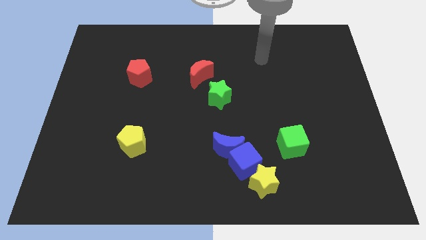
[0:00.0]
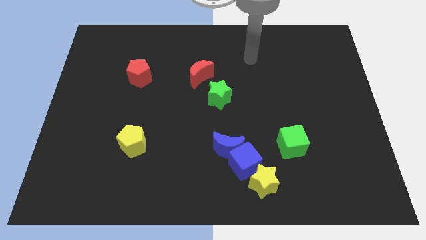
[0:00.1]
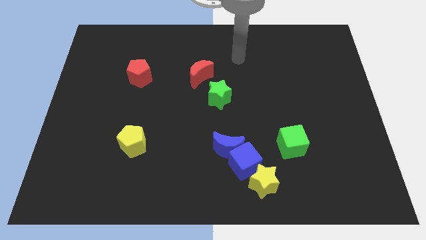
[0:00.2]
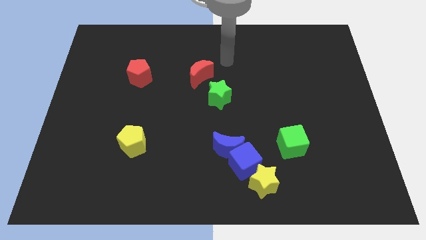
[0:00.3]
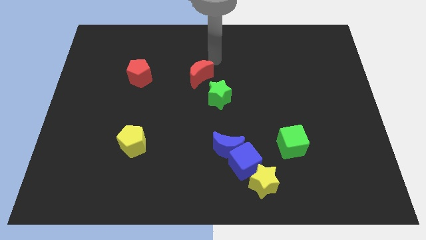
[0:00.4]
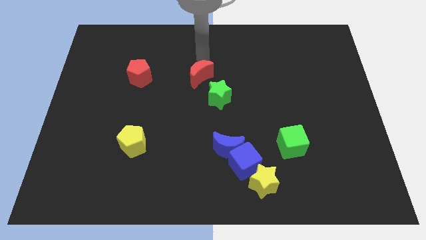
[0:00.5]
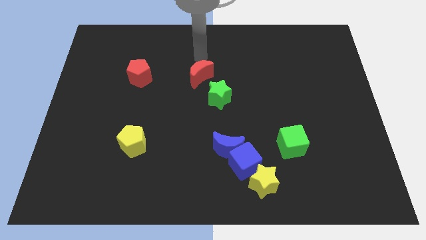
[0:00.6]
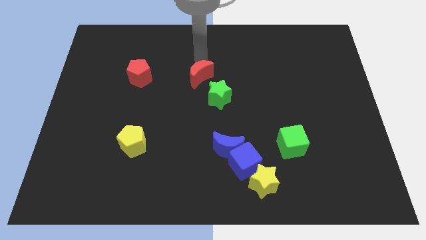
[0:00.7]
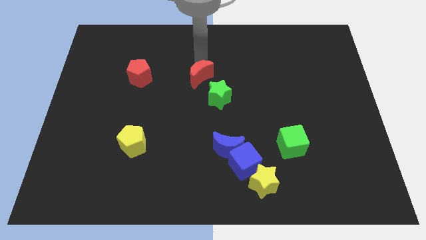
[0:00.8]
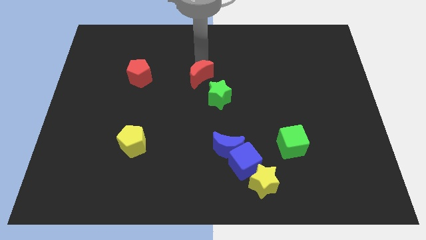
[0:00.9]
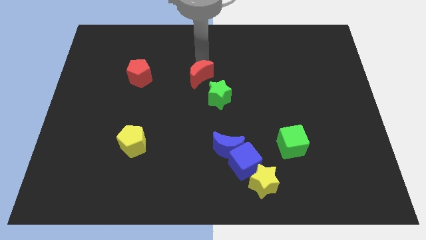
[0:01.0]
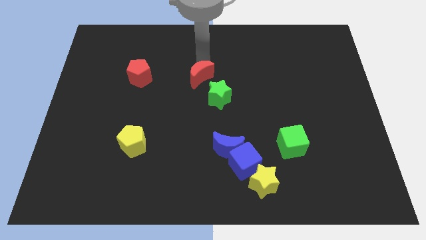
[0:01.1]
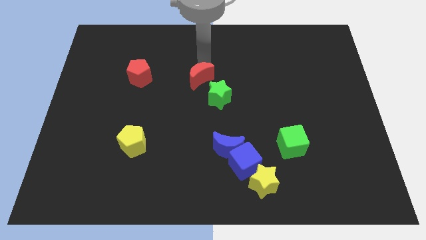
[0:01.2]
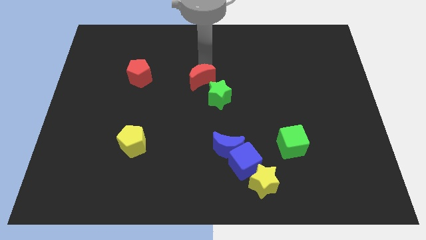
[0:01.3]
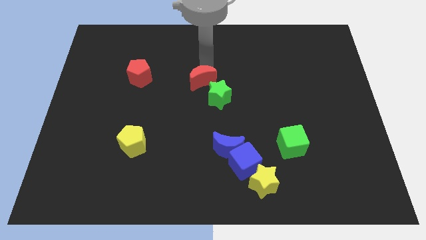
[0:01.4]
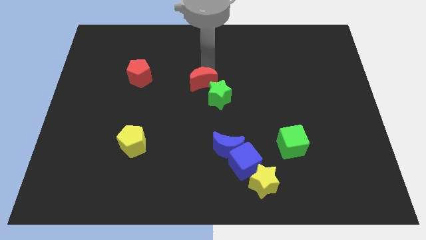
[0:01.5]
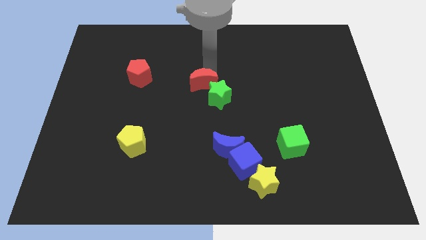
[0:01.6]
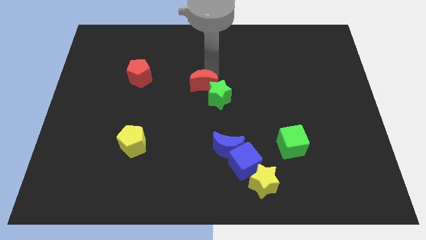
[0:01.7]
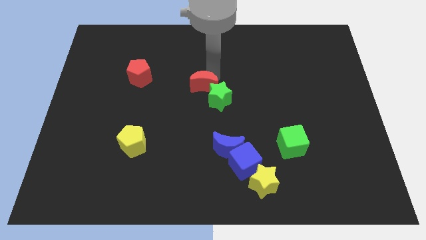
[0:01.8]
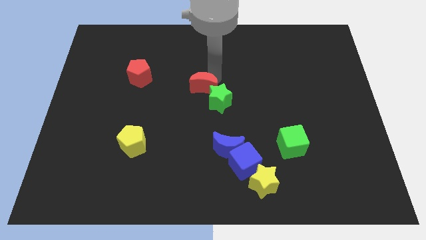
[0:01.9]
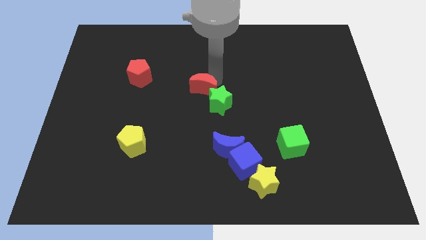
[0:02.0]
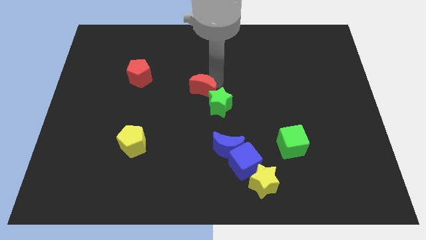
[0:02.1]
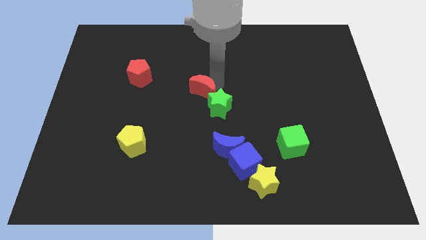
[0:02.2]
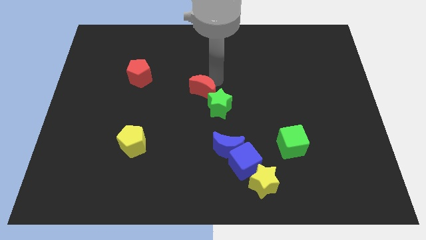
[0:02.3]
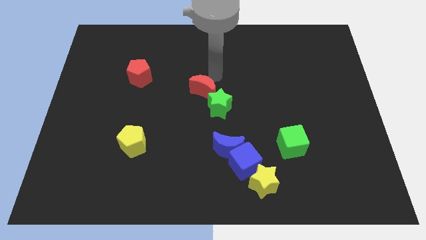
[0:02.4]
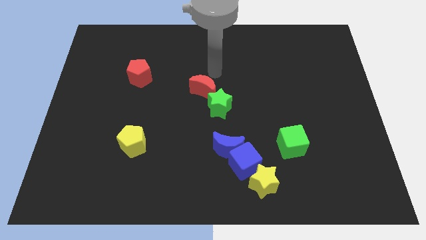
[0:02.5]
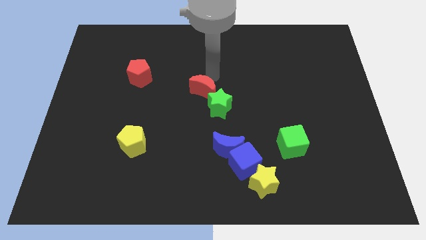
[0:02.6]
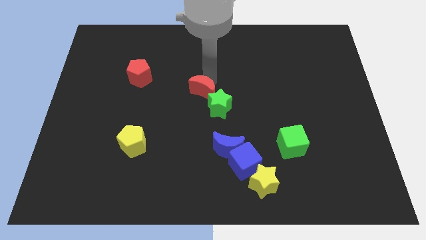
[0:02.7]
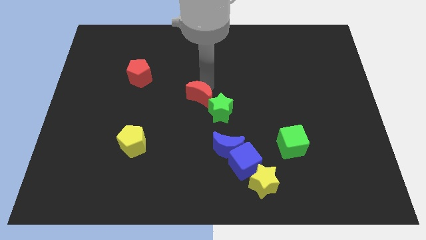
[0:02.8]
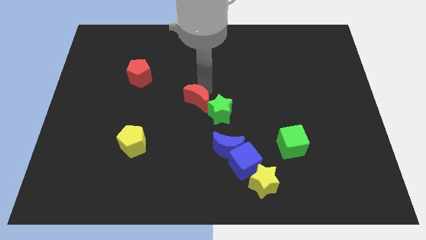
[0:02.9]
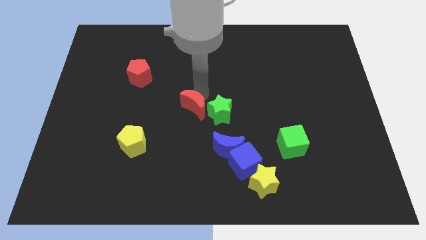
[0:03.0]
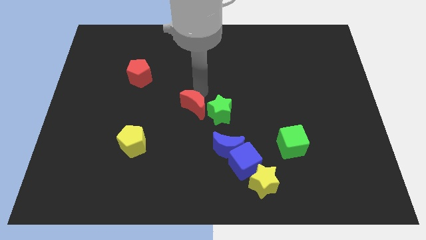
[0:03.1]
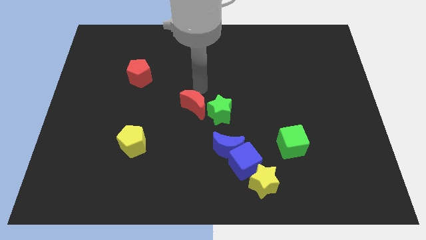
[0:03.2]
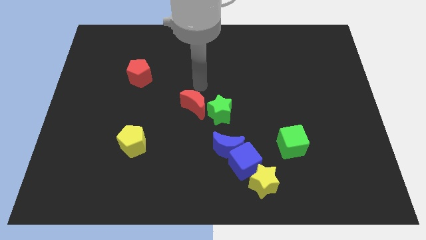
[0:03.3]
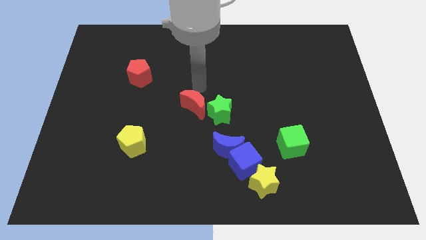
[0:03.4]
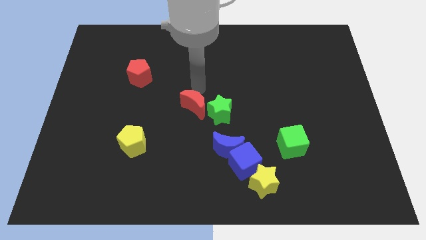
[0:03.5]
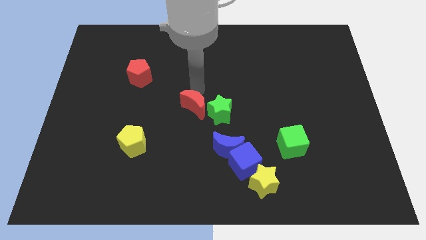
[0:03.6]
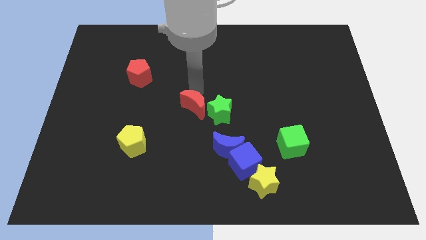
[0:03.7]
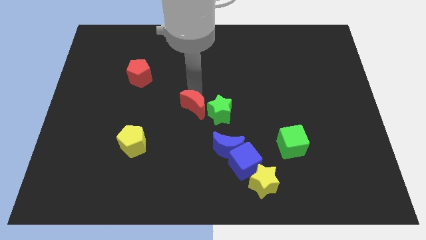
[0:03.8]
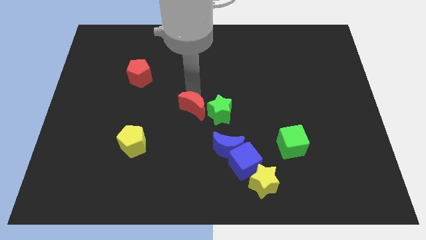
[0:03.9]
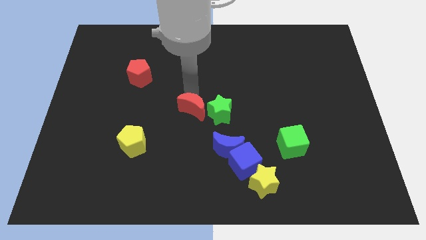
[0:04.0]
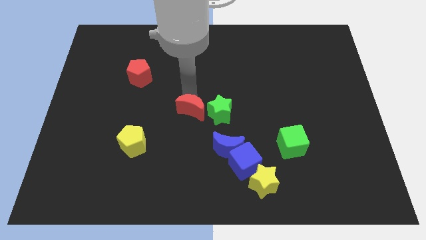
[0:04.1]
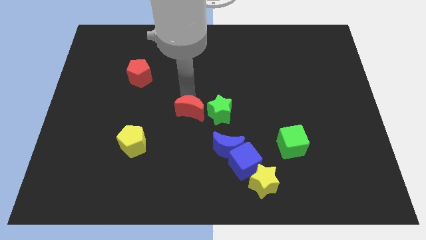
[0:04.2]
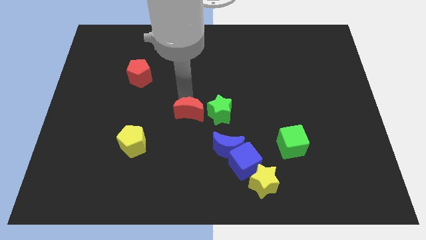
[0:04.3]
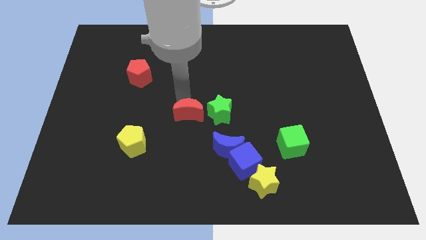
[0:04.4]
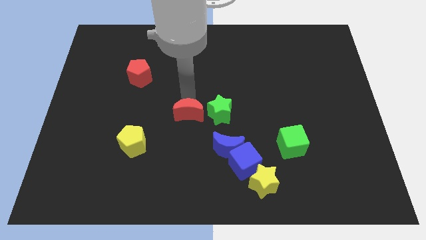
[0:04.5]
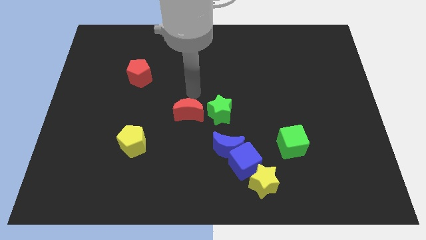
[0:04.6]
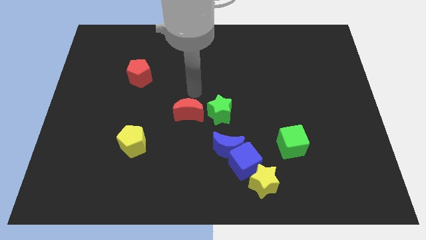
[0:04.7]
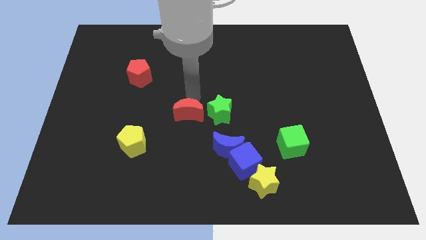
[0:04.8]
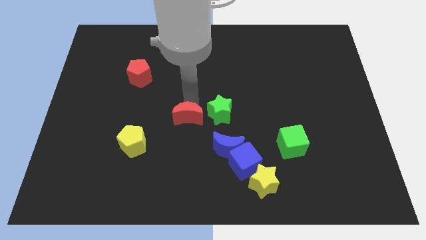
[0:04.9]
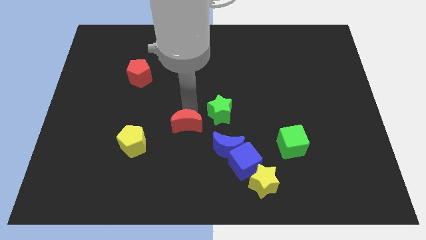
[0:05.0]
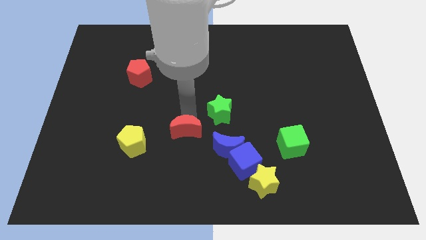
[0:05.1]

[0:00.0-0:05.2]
slide the red moon right of the yellow pentagon
